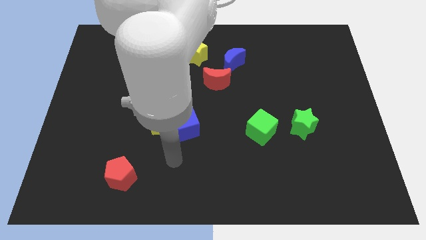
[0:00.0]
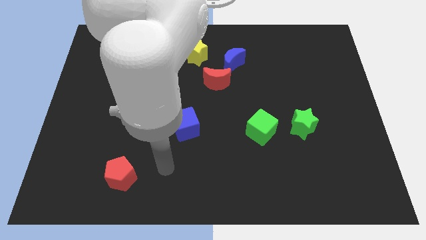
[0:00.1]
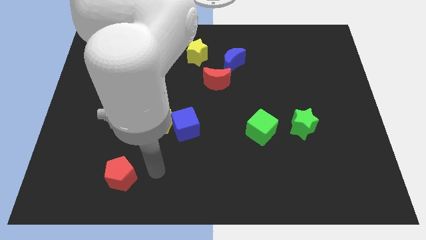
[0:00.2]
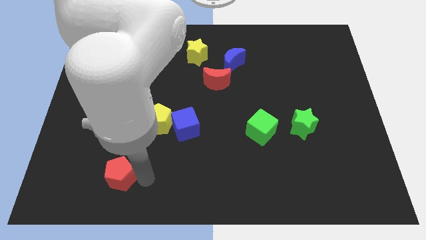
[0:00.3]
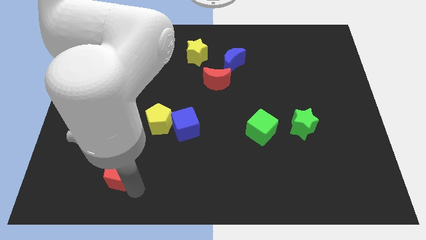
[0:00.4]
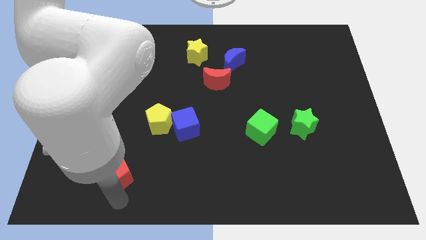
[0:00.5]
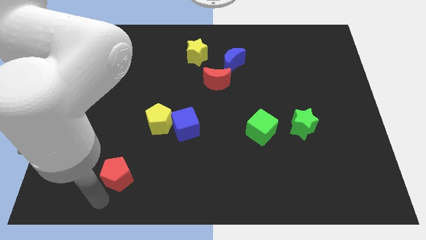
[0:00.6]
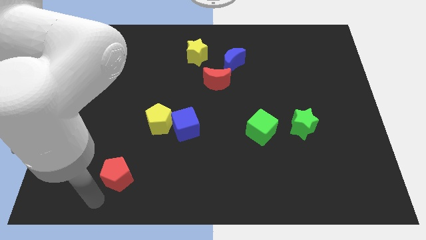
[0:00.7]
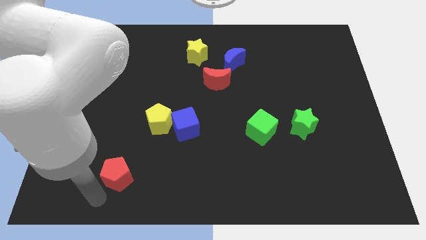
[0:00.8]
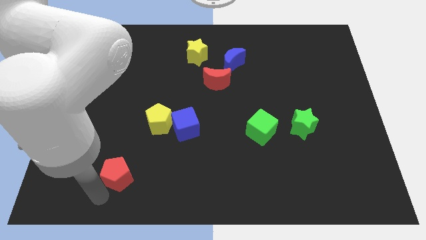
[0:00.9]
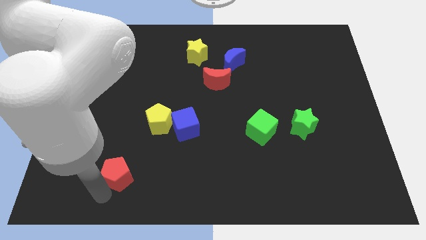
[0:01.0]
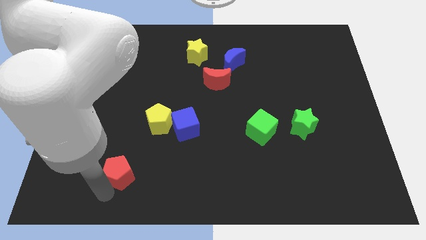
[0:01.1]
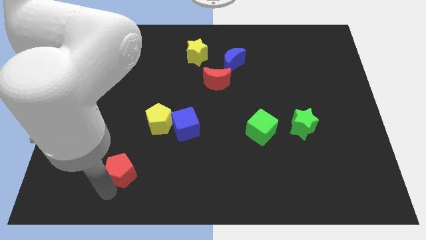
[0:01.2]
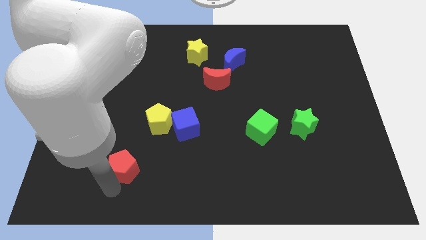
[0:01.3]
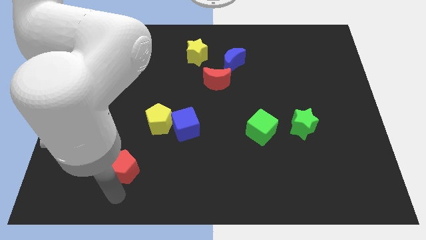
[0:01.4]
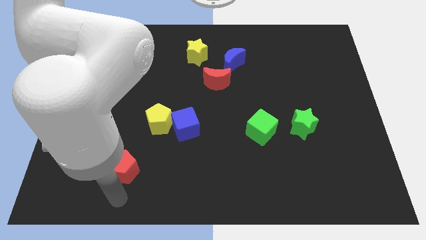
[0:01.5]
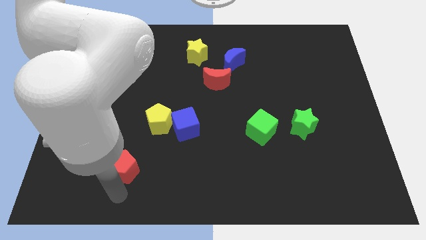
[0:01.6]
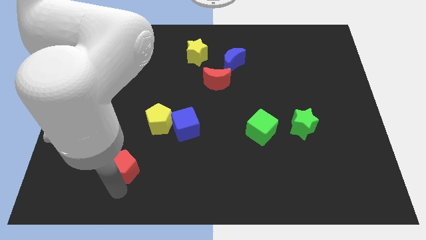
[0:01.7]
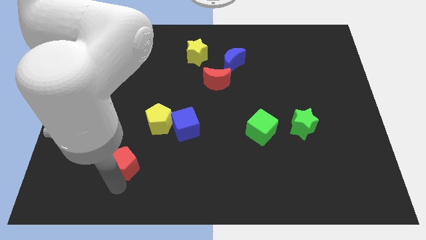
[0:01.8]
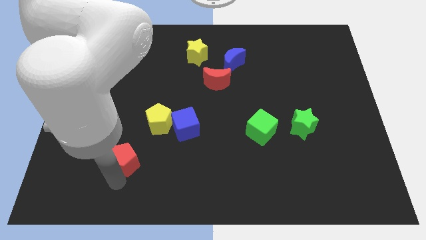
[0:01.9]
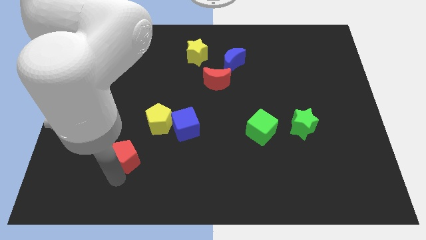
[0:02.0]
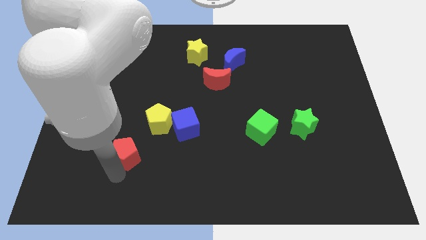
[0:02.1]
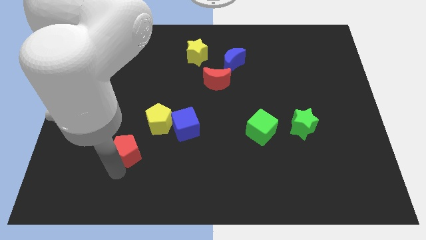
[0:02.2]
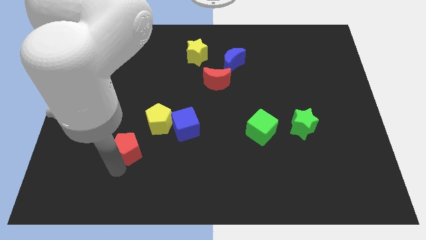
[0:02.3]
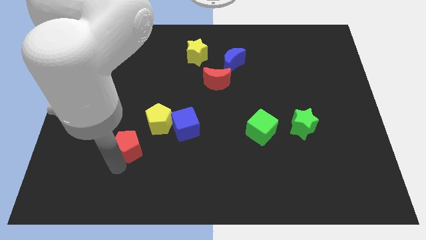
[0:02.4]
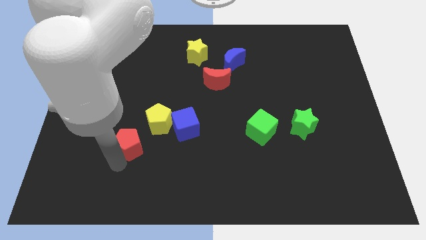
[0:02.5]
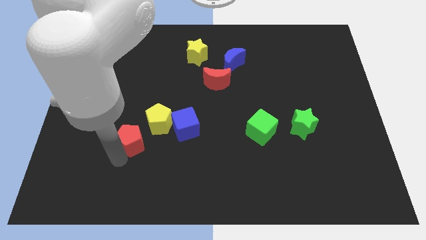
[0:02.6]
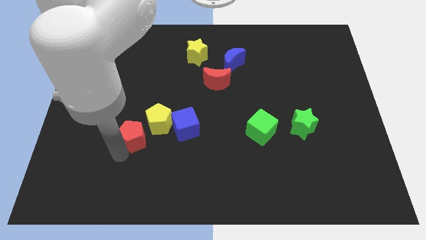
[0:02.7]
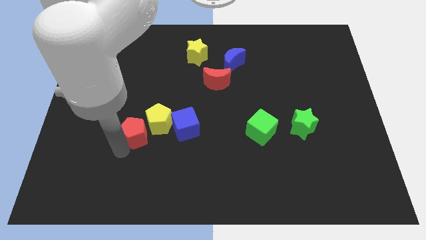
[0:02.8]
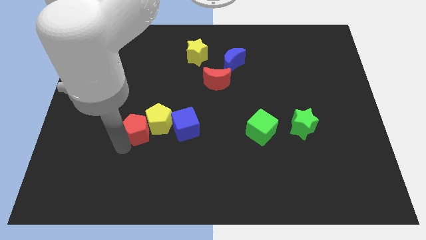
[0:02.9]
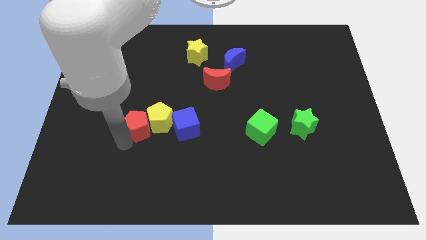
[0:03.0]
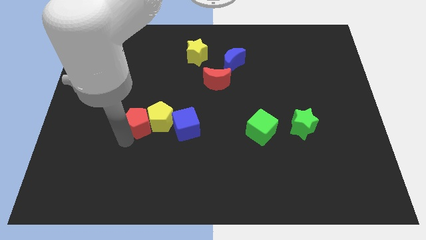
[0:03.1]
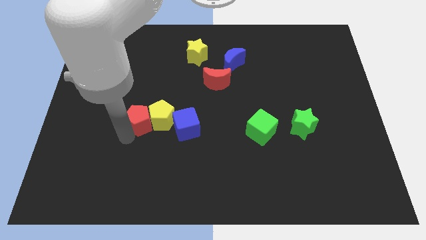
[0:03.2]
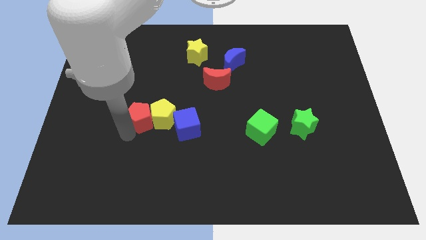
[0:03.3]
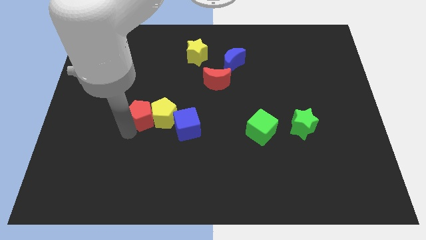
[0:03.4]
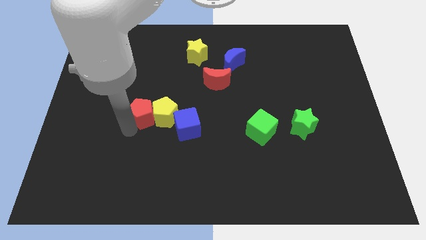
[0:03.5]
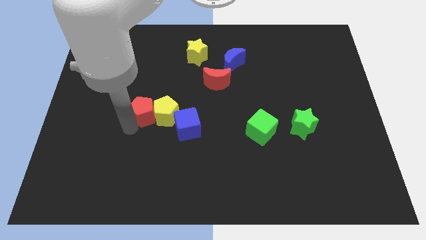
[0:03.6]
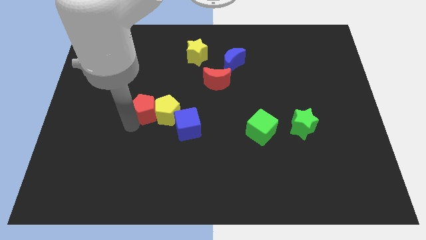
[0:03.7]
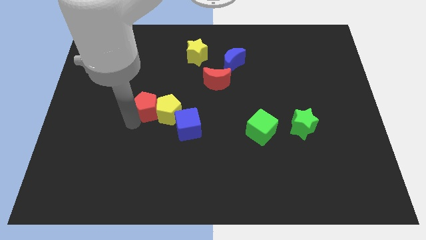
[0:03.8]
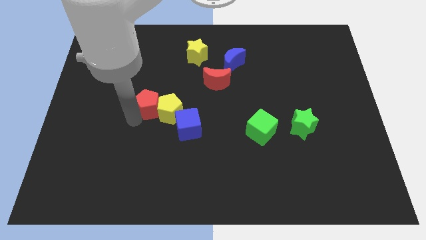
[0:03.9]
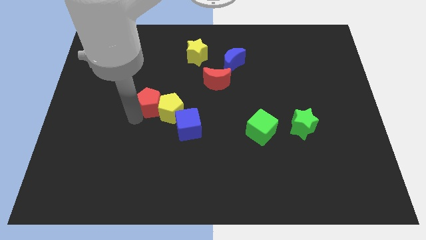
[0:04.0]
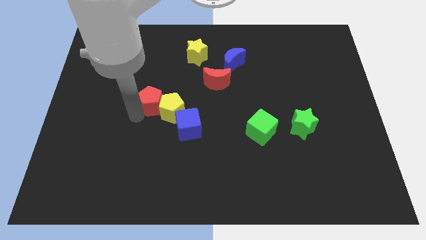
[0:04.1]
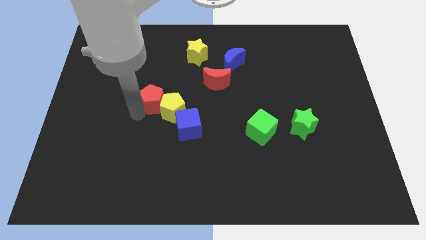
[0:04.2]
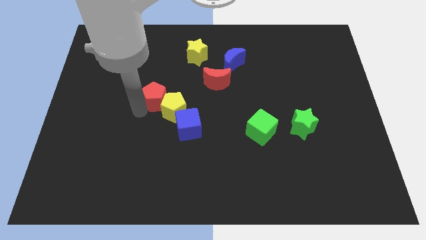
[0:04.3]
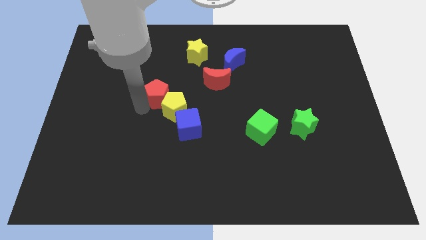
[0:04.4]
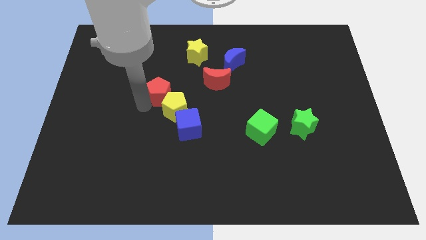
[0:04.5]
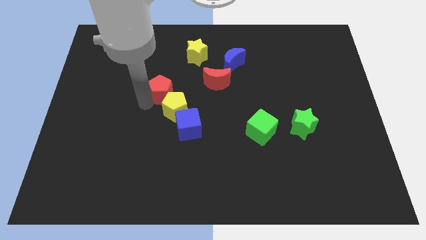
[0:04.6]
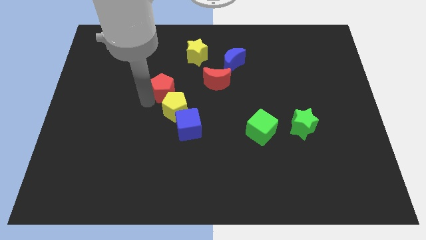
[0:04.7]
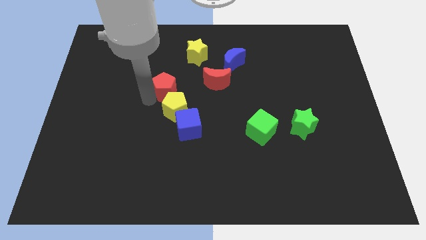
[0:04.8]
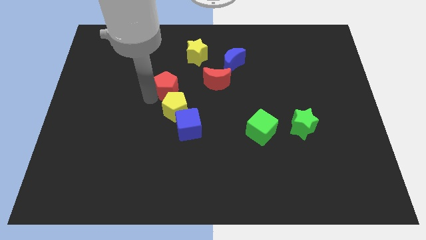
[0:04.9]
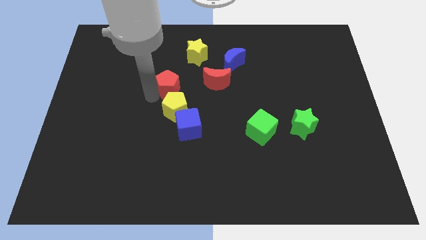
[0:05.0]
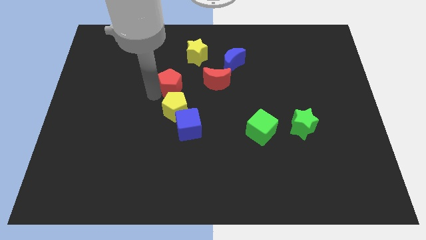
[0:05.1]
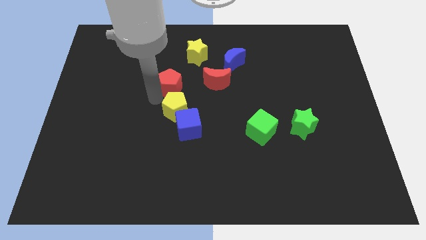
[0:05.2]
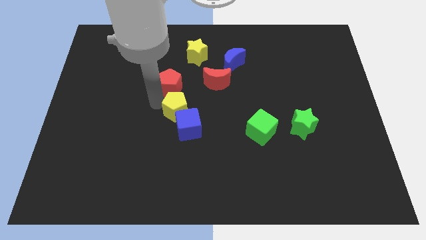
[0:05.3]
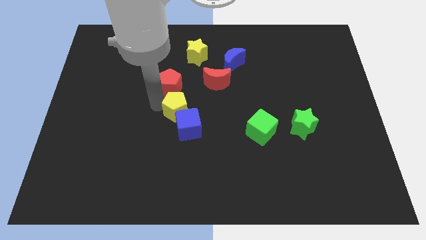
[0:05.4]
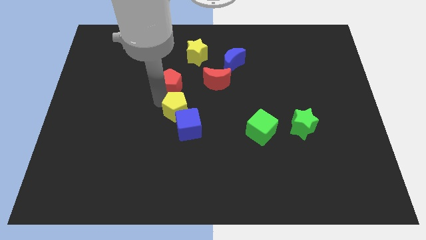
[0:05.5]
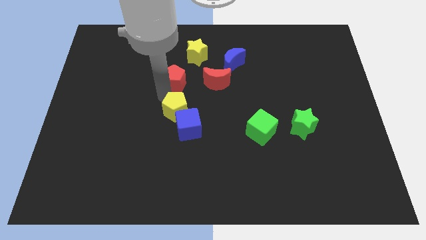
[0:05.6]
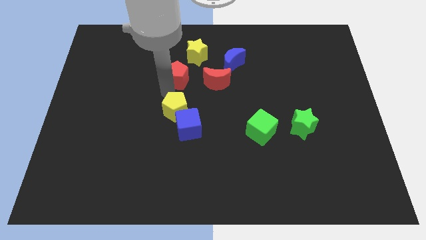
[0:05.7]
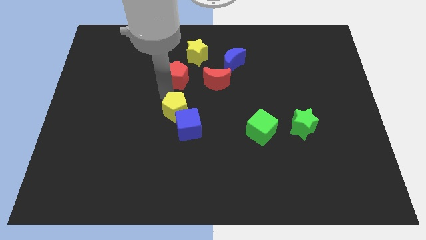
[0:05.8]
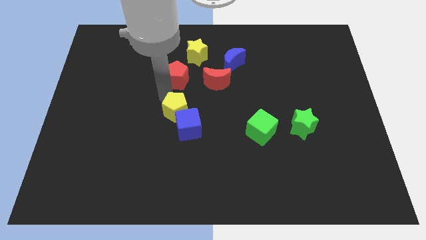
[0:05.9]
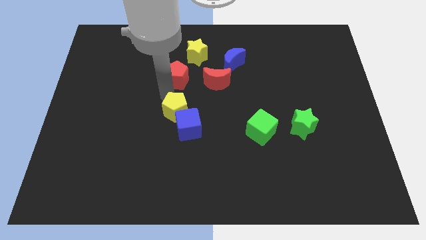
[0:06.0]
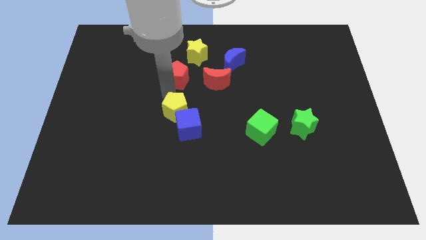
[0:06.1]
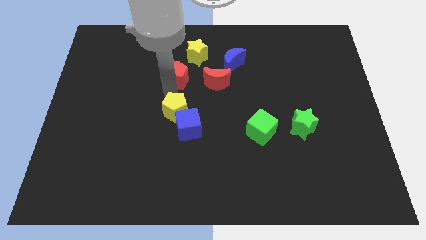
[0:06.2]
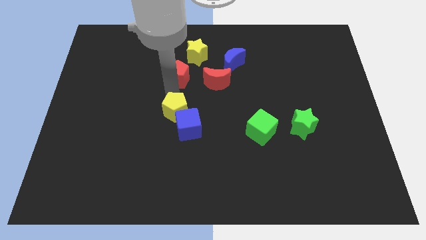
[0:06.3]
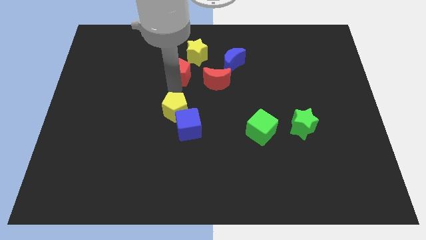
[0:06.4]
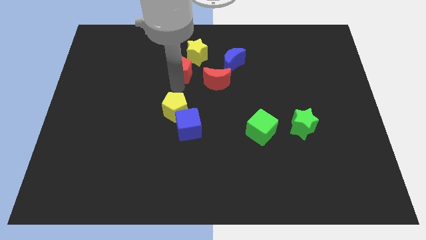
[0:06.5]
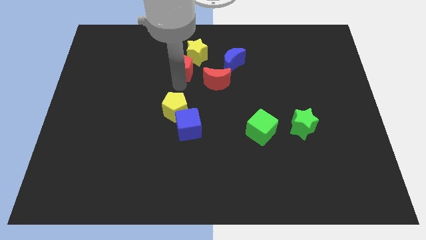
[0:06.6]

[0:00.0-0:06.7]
push the red pentagon next to the yellow star

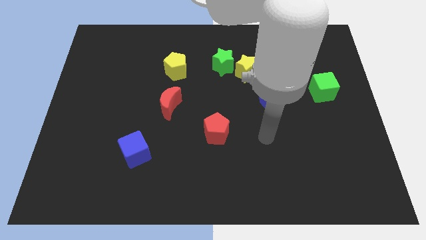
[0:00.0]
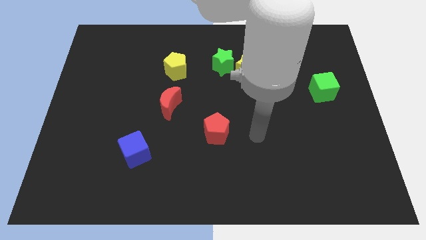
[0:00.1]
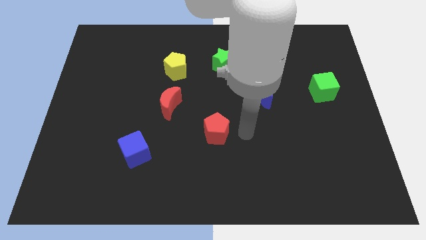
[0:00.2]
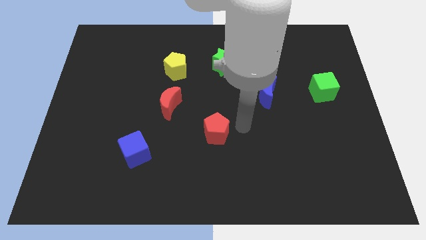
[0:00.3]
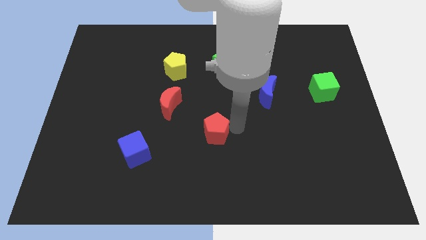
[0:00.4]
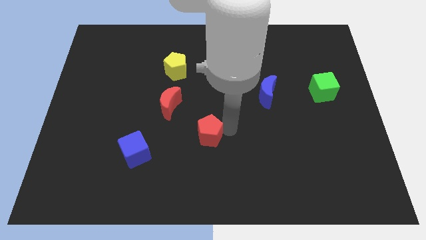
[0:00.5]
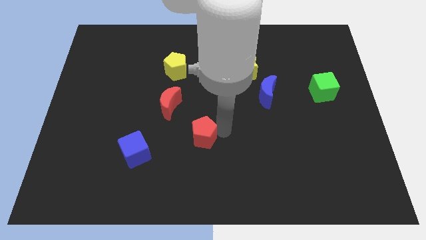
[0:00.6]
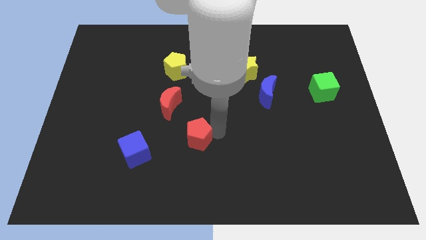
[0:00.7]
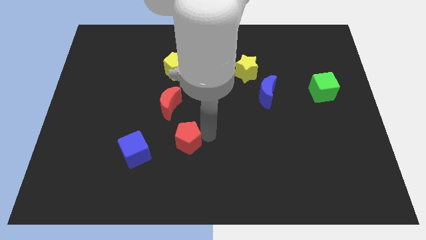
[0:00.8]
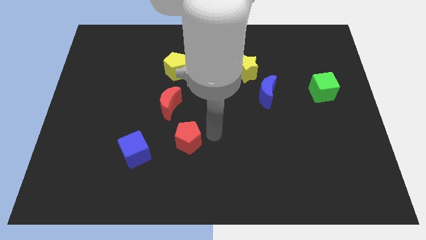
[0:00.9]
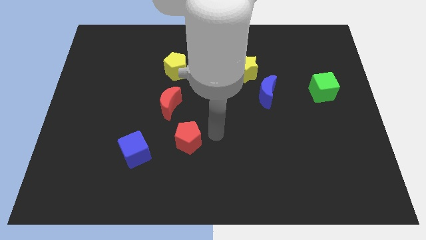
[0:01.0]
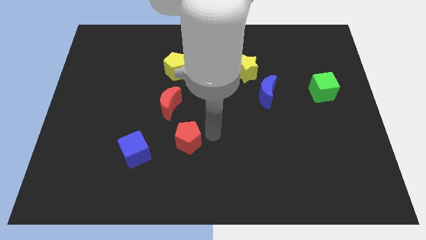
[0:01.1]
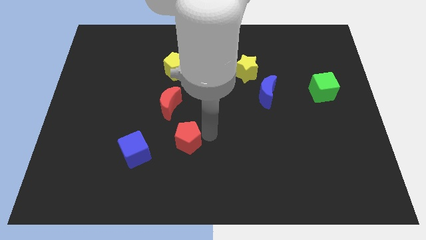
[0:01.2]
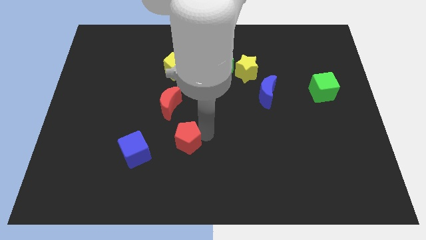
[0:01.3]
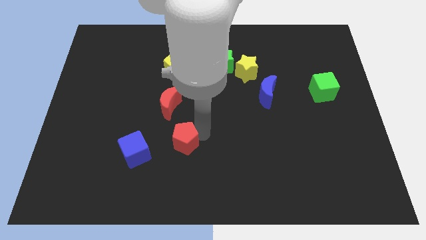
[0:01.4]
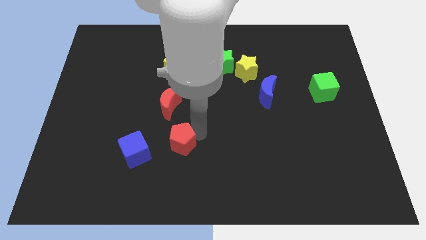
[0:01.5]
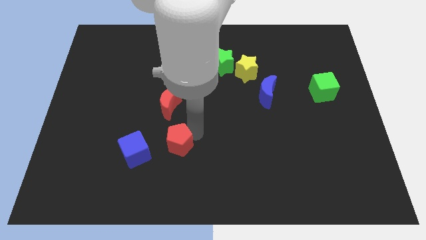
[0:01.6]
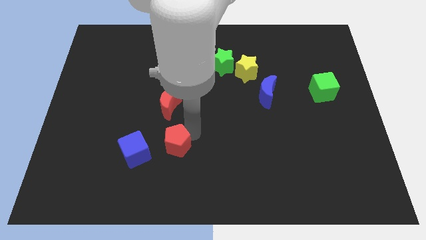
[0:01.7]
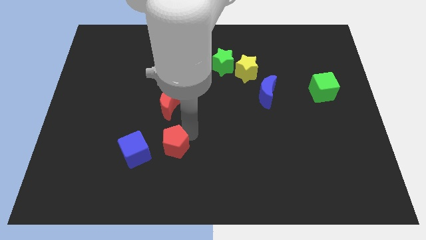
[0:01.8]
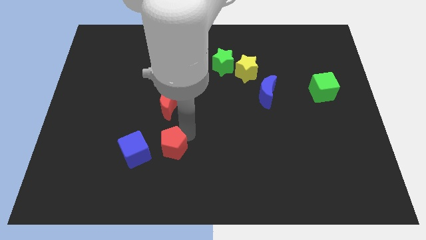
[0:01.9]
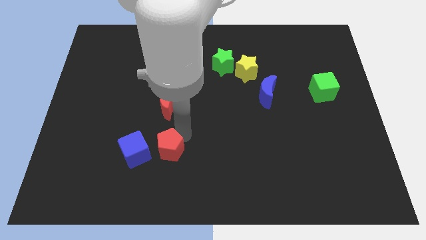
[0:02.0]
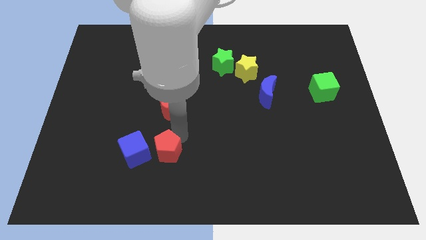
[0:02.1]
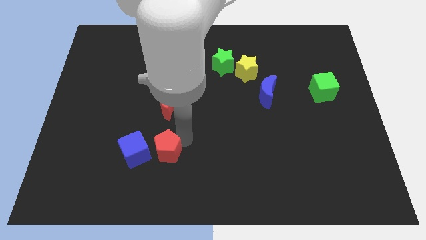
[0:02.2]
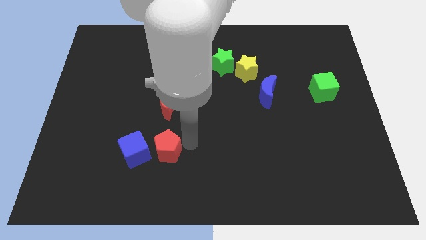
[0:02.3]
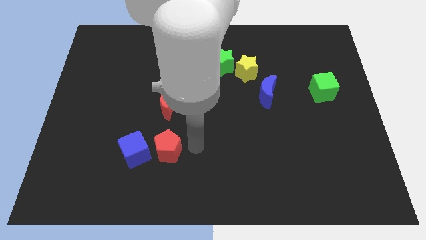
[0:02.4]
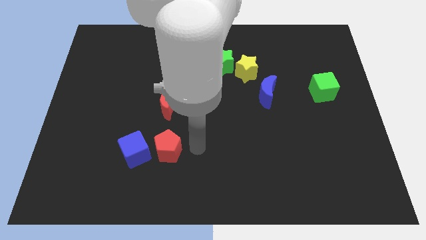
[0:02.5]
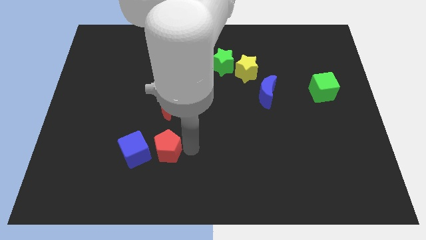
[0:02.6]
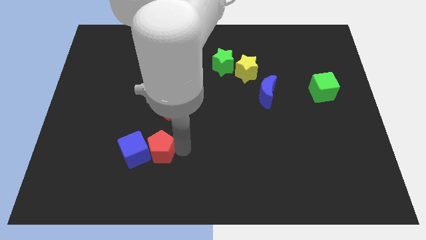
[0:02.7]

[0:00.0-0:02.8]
put the red pentagon towards the blue cube
